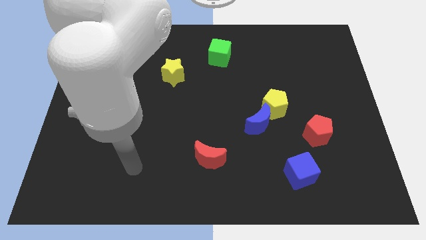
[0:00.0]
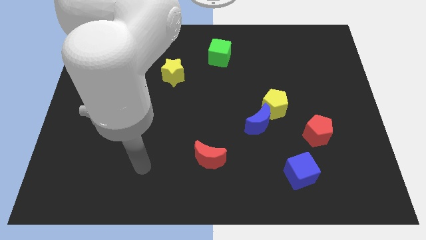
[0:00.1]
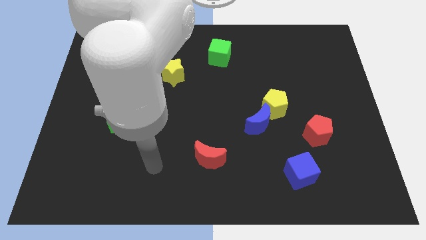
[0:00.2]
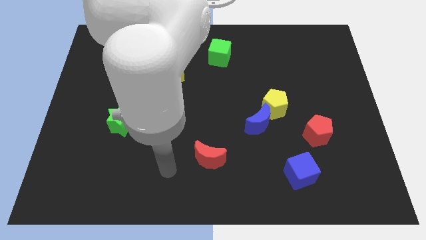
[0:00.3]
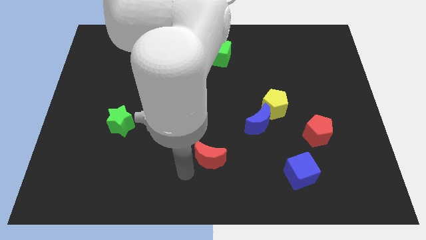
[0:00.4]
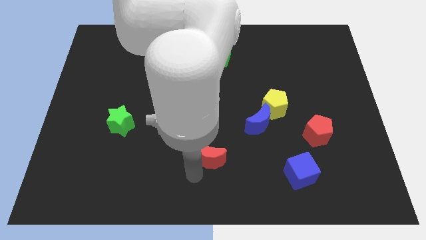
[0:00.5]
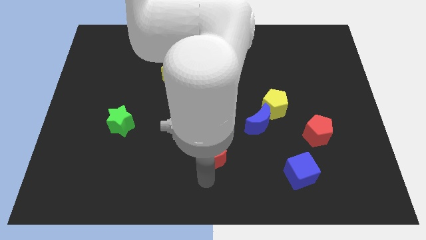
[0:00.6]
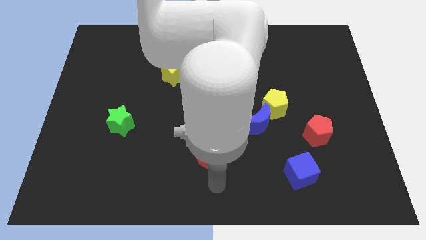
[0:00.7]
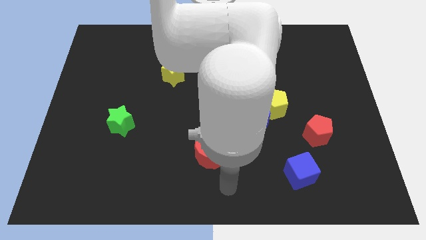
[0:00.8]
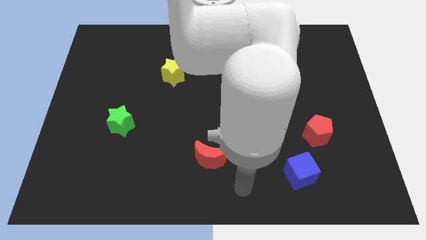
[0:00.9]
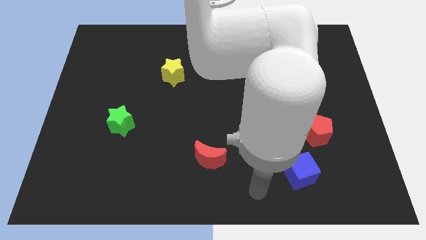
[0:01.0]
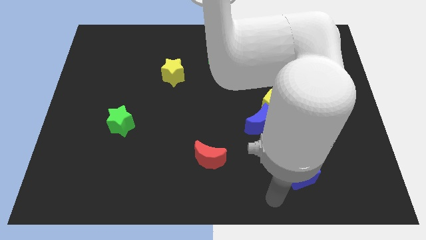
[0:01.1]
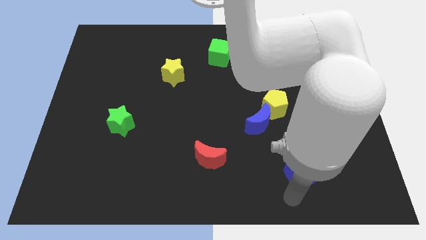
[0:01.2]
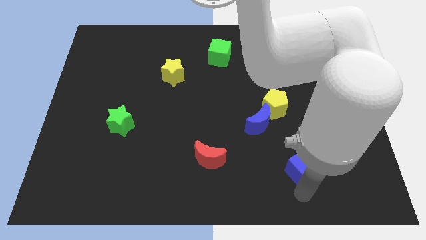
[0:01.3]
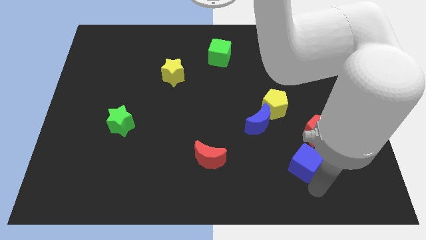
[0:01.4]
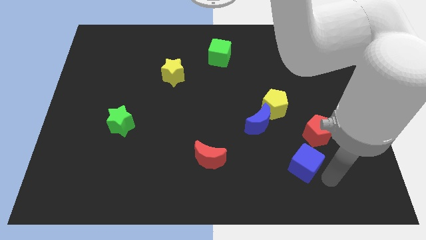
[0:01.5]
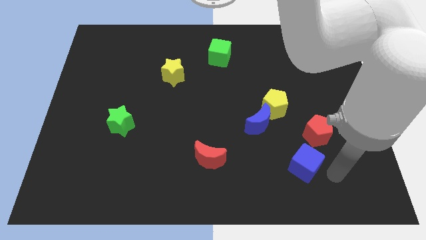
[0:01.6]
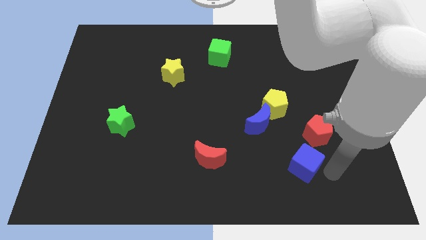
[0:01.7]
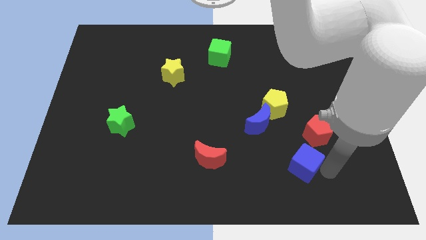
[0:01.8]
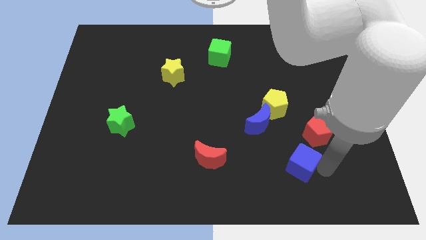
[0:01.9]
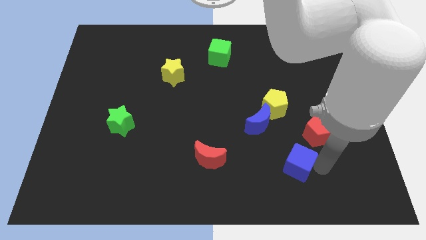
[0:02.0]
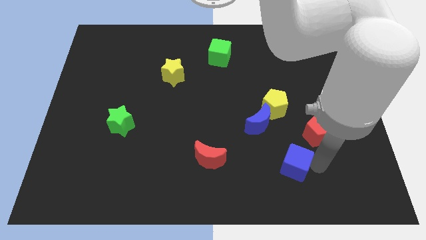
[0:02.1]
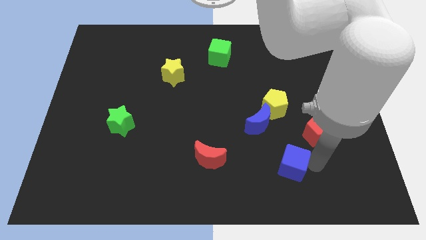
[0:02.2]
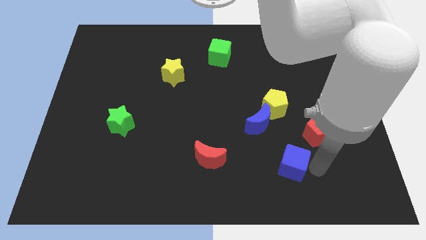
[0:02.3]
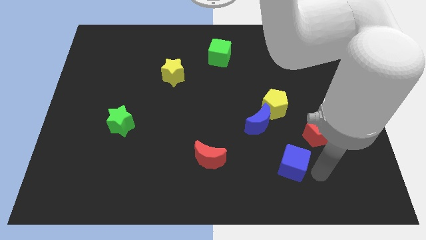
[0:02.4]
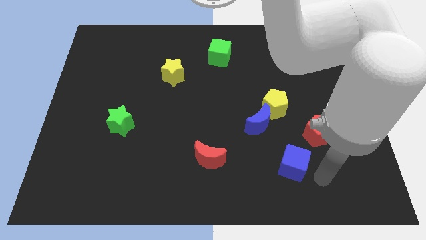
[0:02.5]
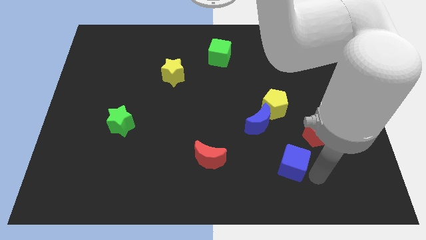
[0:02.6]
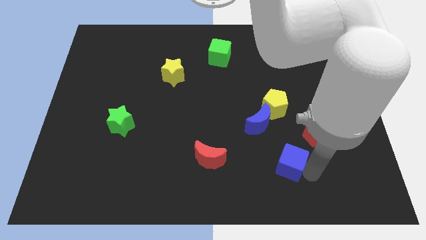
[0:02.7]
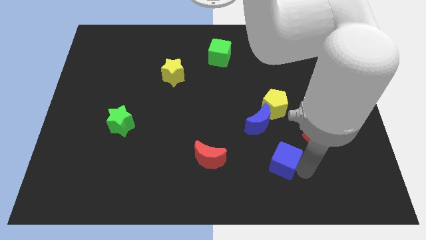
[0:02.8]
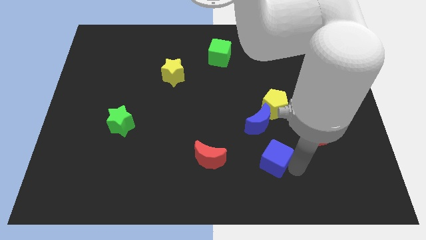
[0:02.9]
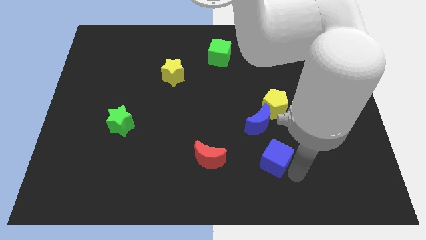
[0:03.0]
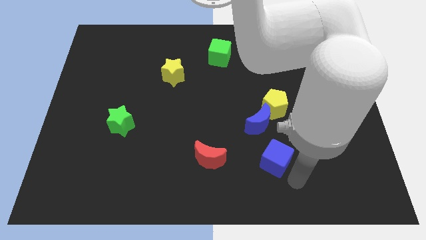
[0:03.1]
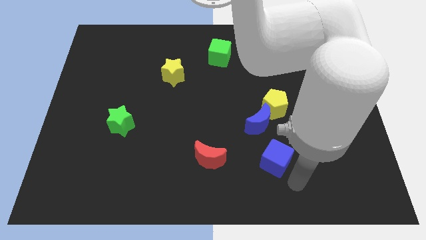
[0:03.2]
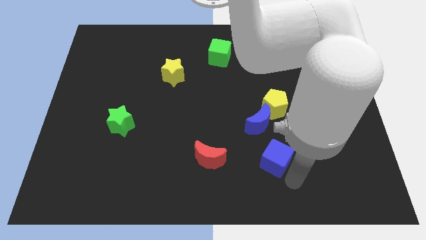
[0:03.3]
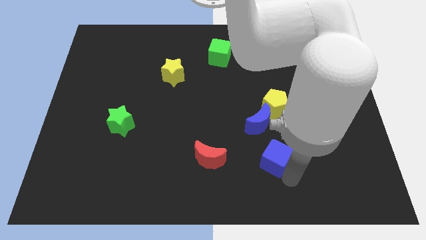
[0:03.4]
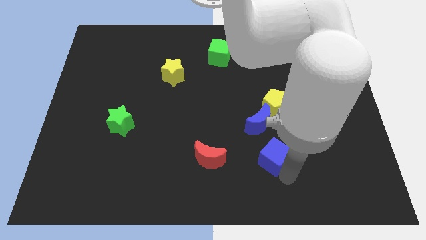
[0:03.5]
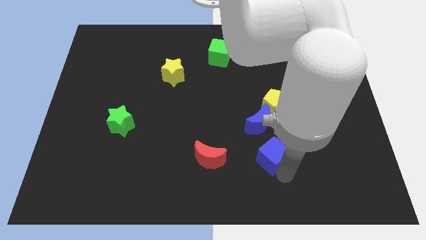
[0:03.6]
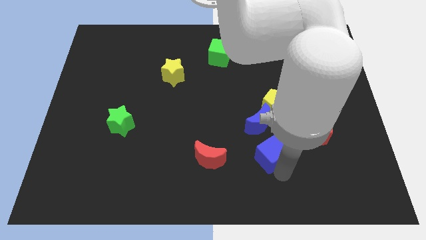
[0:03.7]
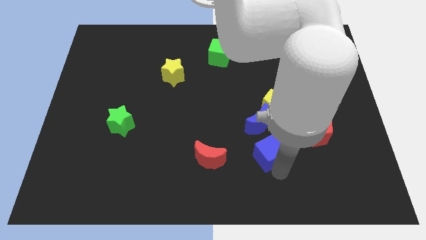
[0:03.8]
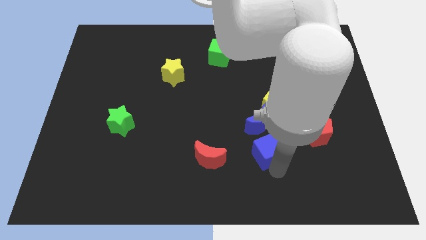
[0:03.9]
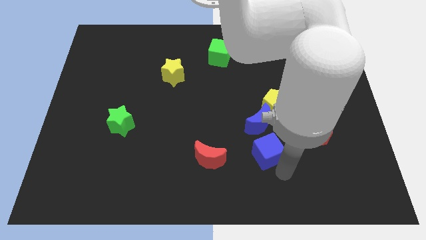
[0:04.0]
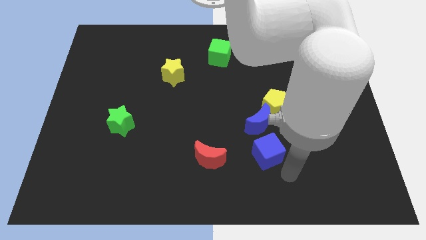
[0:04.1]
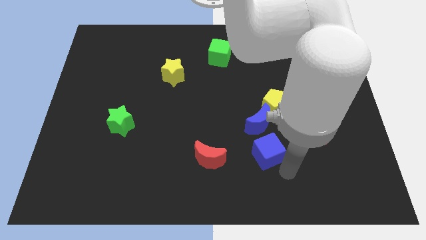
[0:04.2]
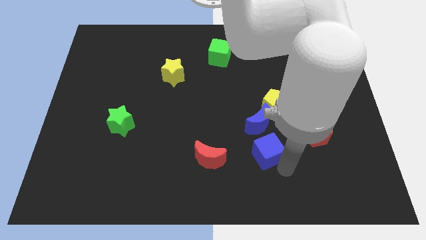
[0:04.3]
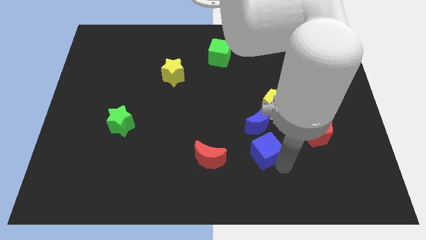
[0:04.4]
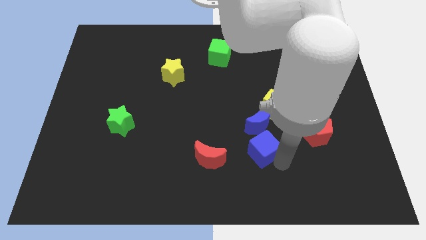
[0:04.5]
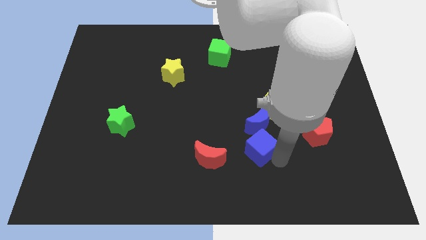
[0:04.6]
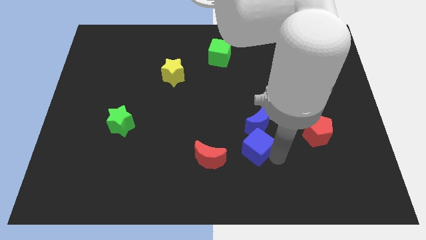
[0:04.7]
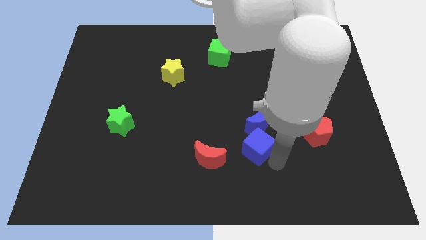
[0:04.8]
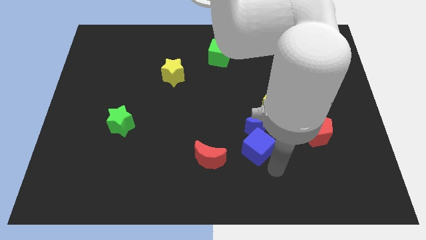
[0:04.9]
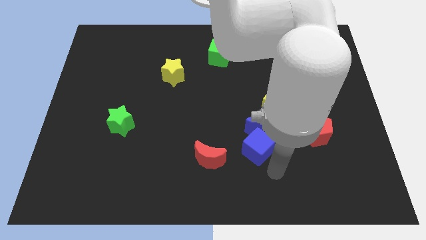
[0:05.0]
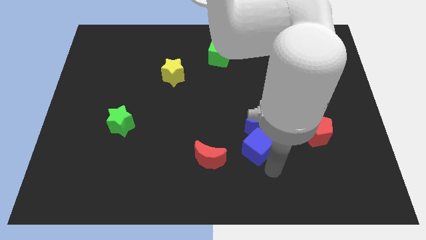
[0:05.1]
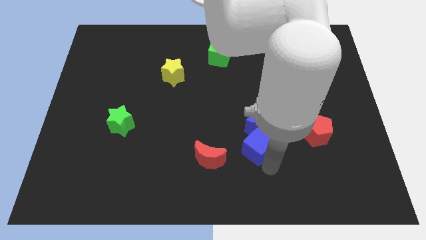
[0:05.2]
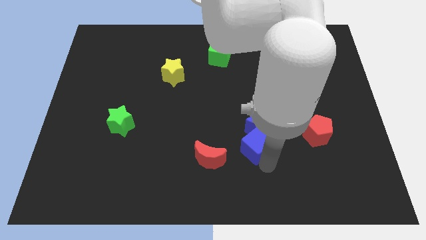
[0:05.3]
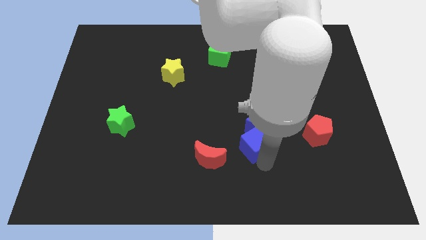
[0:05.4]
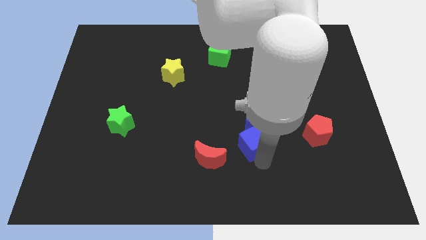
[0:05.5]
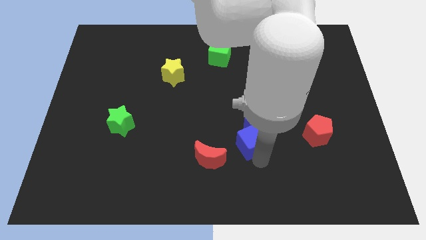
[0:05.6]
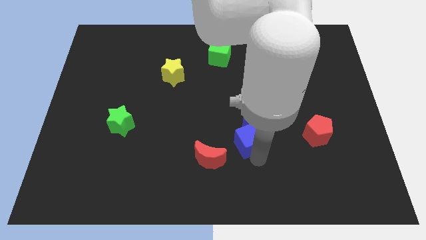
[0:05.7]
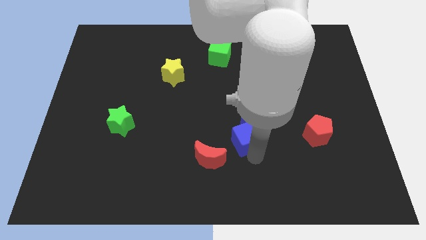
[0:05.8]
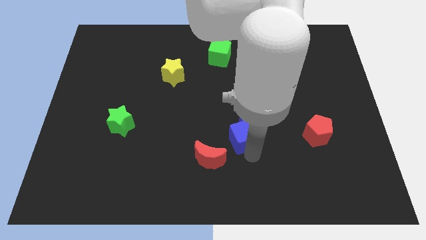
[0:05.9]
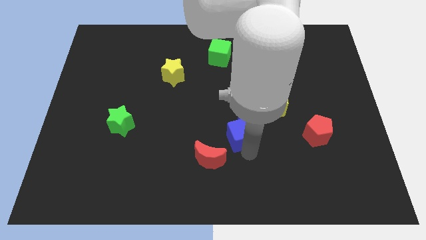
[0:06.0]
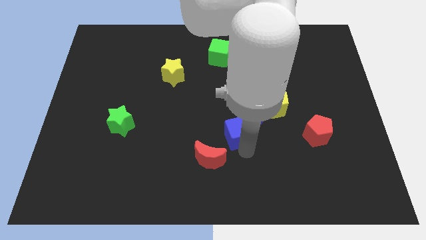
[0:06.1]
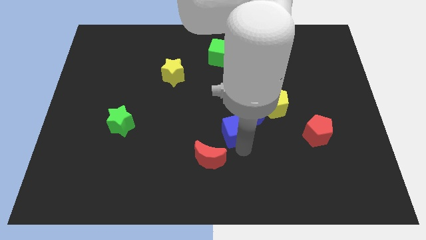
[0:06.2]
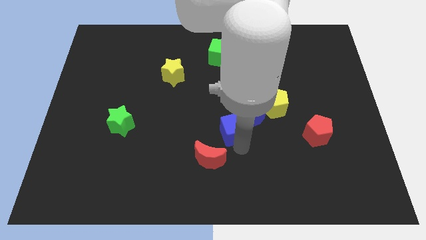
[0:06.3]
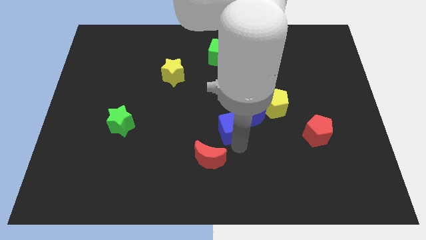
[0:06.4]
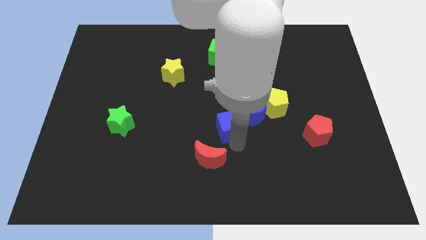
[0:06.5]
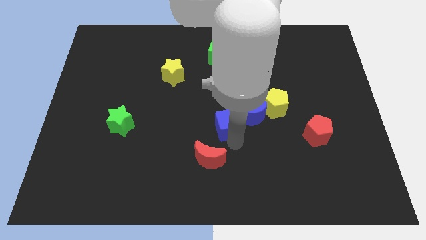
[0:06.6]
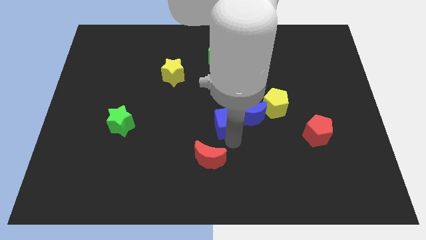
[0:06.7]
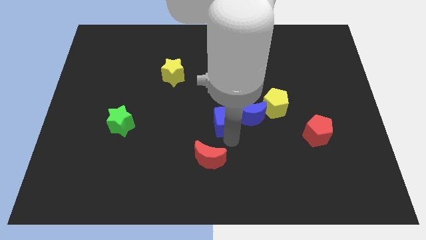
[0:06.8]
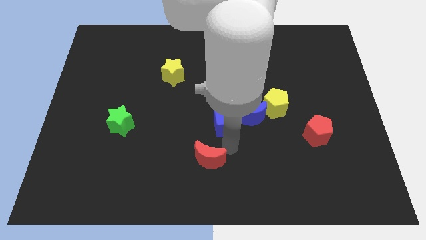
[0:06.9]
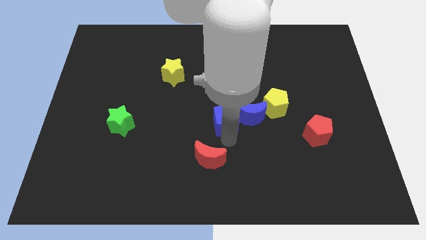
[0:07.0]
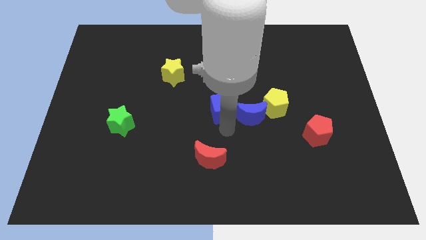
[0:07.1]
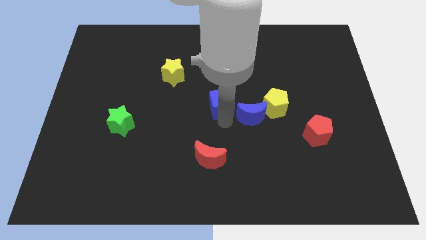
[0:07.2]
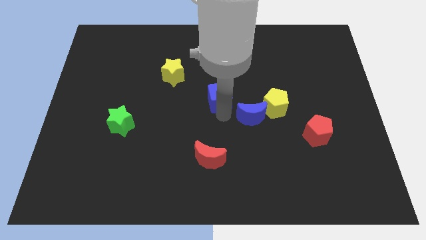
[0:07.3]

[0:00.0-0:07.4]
move the blue cube to the bottom side of the green cube
